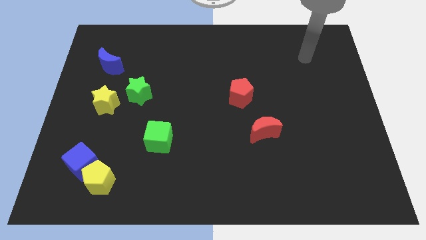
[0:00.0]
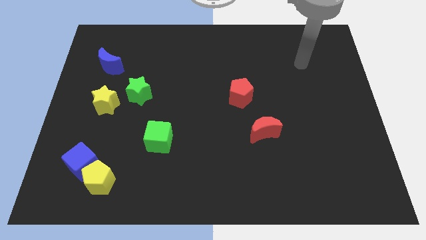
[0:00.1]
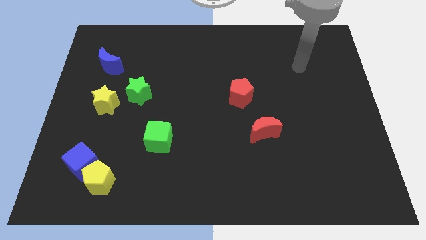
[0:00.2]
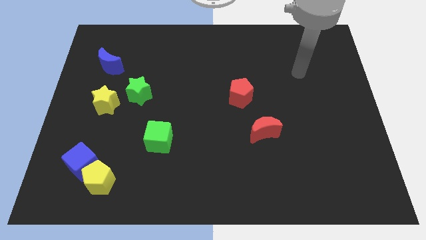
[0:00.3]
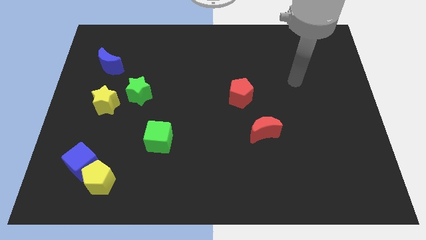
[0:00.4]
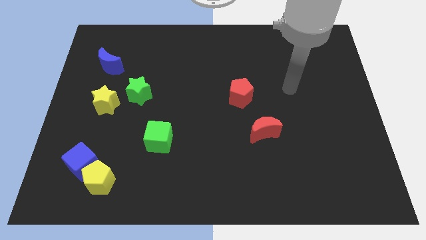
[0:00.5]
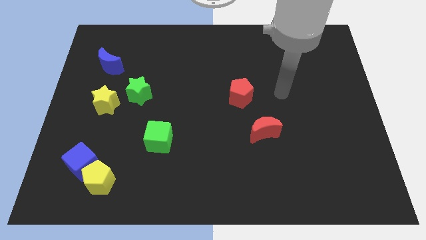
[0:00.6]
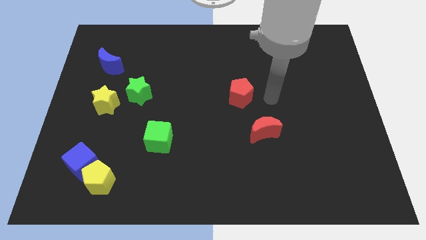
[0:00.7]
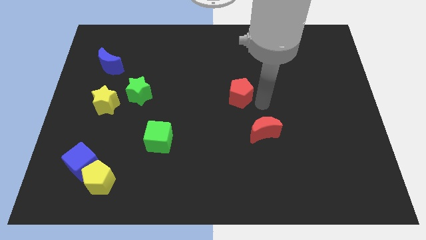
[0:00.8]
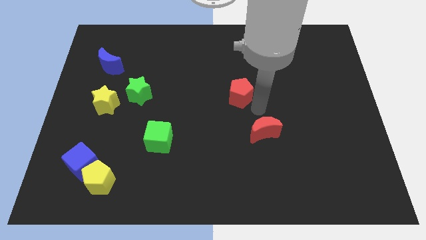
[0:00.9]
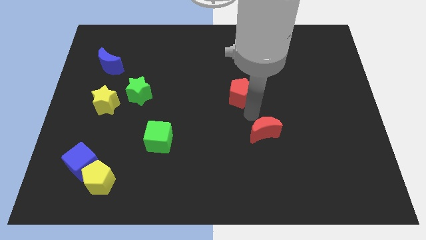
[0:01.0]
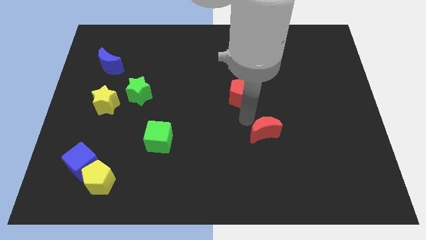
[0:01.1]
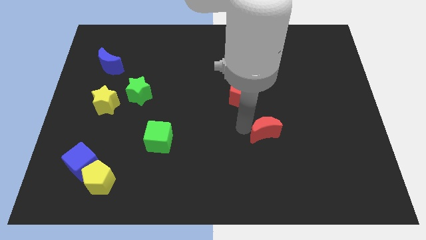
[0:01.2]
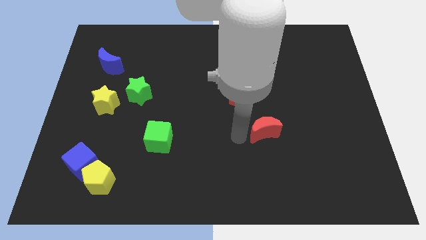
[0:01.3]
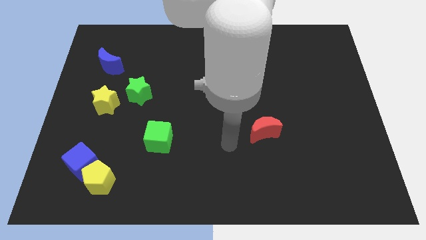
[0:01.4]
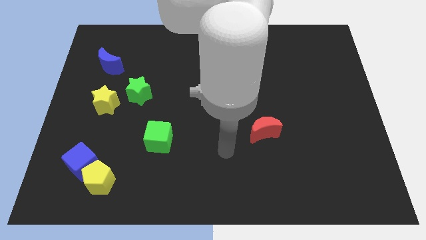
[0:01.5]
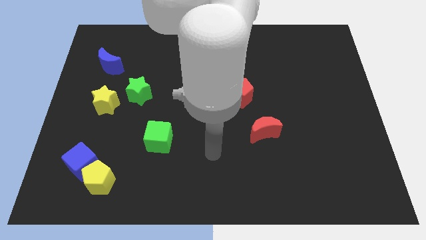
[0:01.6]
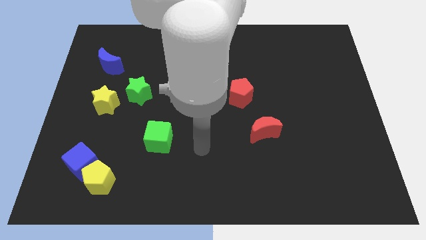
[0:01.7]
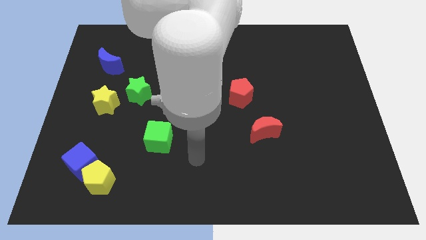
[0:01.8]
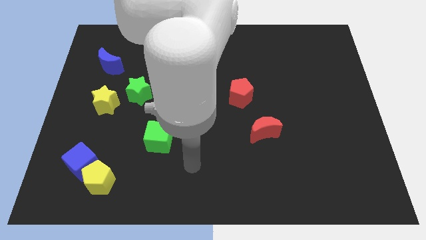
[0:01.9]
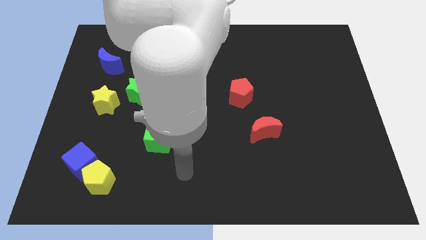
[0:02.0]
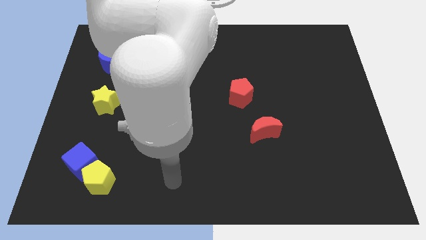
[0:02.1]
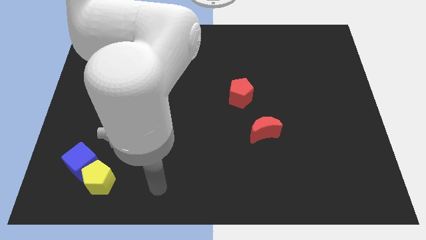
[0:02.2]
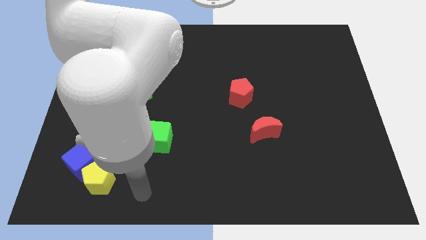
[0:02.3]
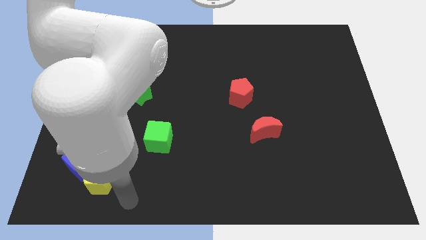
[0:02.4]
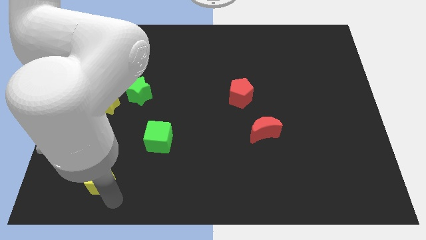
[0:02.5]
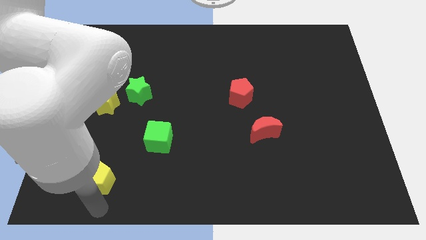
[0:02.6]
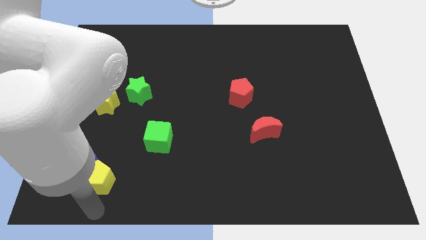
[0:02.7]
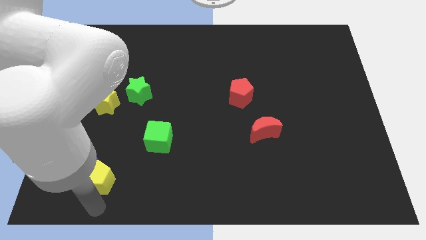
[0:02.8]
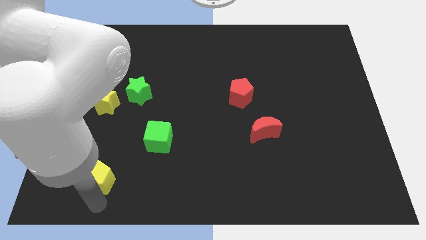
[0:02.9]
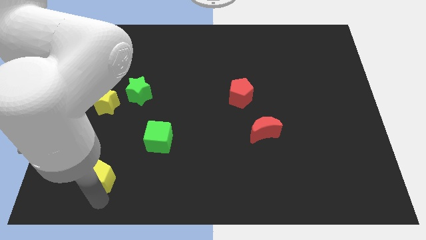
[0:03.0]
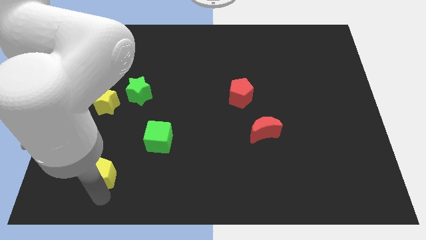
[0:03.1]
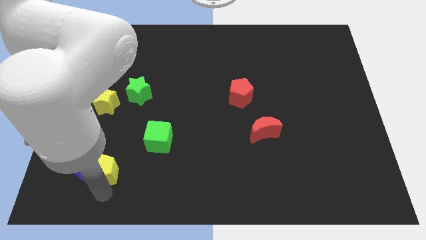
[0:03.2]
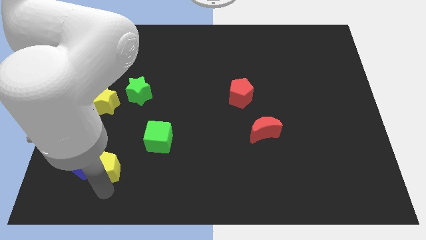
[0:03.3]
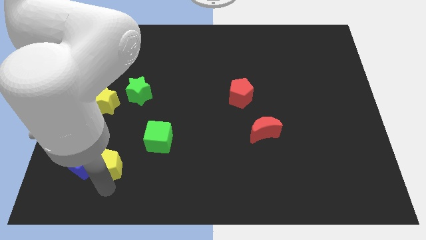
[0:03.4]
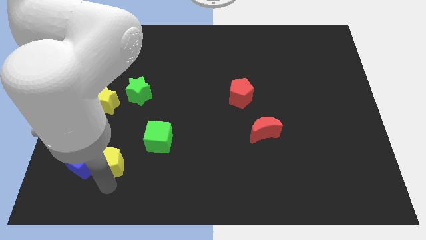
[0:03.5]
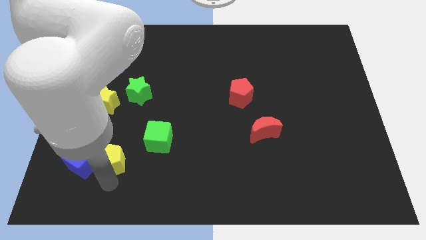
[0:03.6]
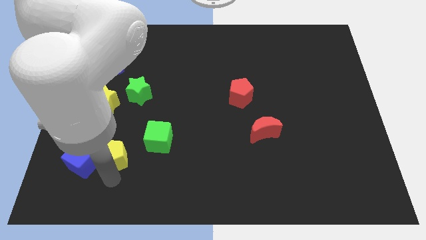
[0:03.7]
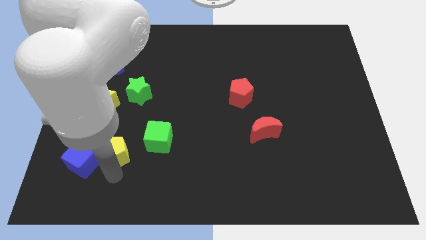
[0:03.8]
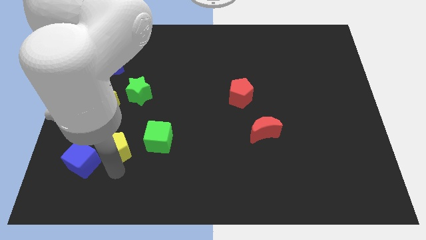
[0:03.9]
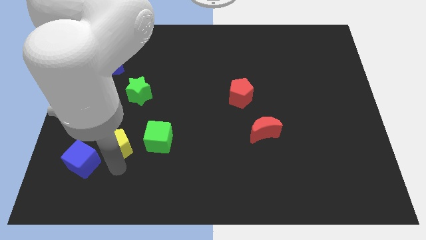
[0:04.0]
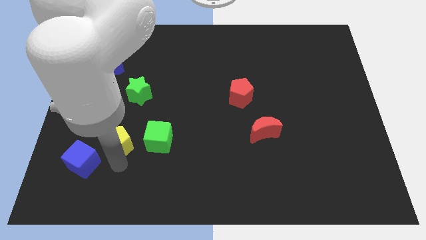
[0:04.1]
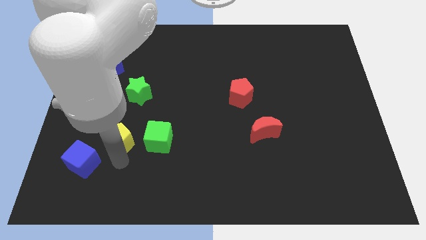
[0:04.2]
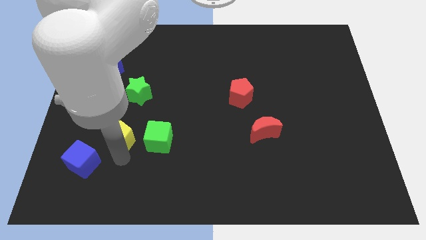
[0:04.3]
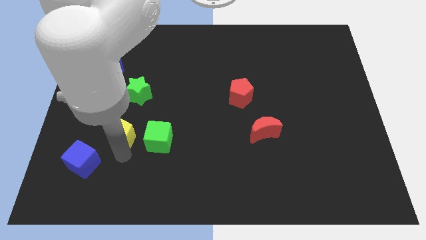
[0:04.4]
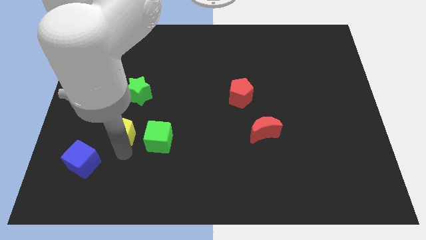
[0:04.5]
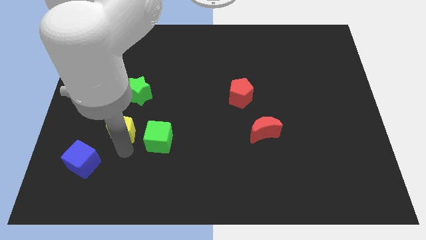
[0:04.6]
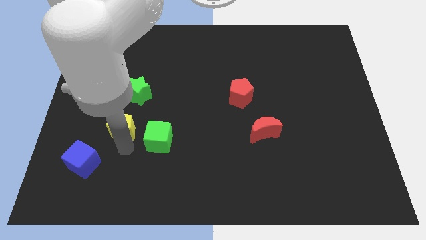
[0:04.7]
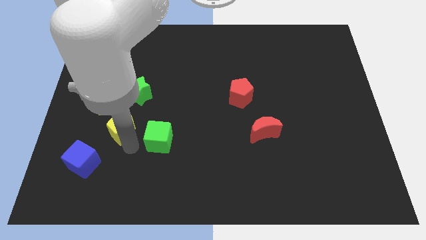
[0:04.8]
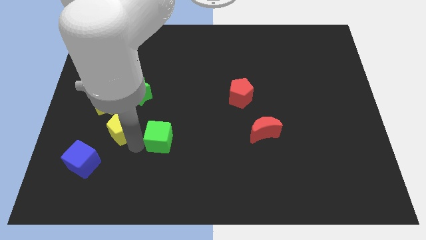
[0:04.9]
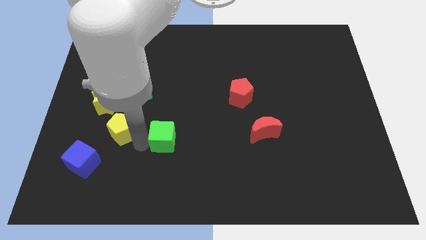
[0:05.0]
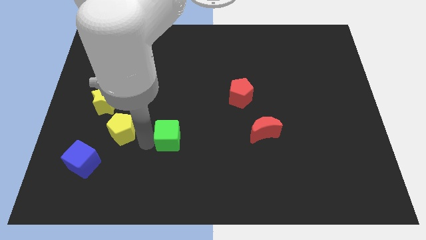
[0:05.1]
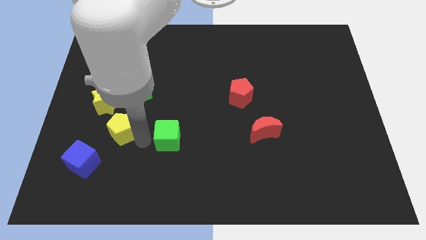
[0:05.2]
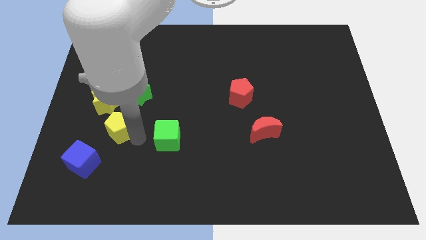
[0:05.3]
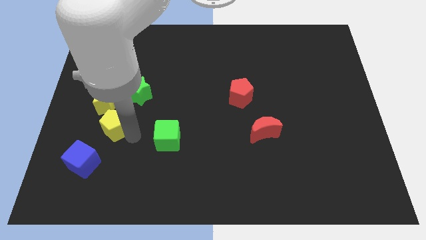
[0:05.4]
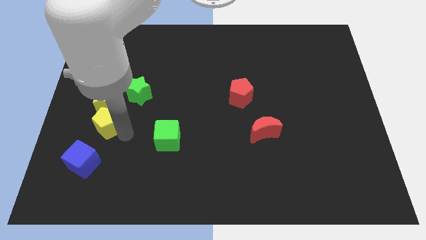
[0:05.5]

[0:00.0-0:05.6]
slide the yellow pentagon next to the yellow star

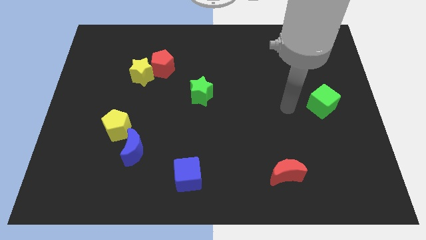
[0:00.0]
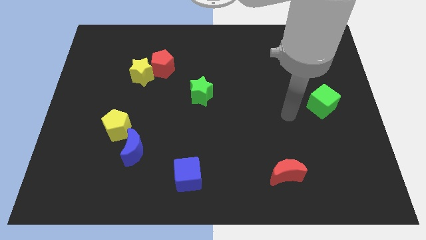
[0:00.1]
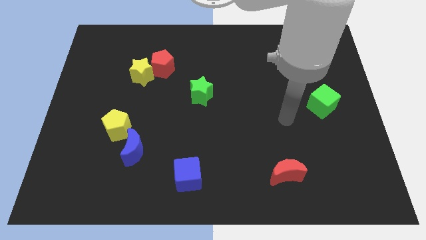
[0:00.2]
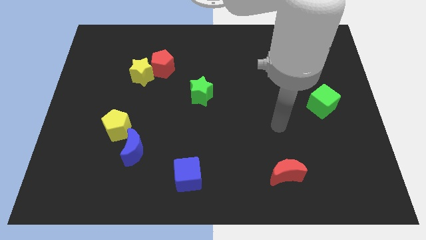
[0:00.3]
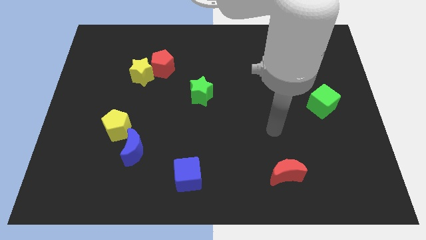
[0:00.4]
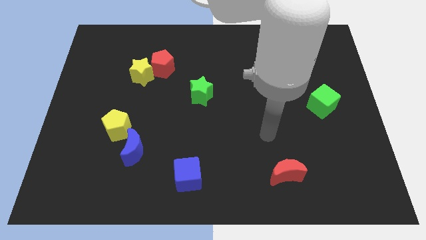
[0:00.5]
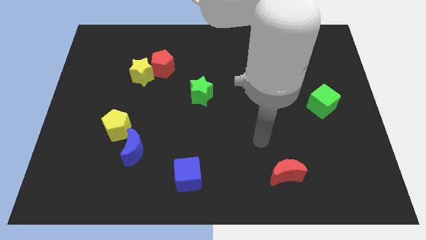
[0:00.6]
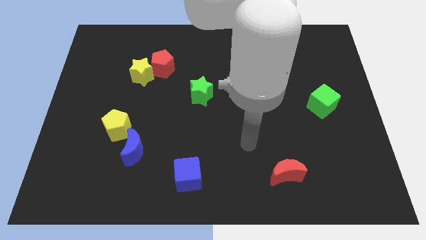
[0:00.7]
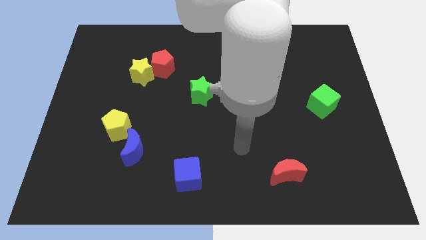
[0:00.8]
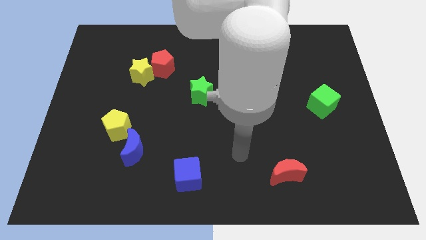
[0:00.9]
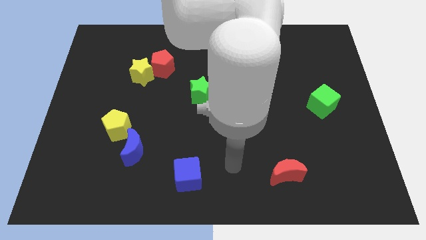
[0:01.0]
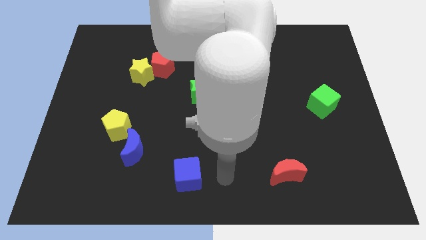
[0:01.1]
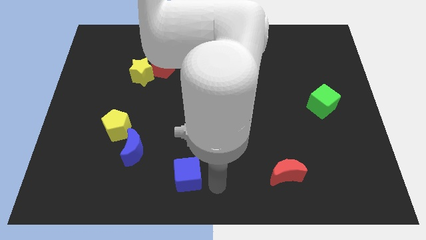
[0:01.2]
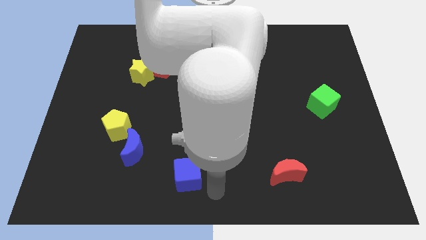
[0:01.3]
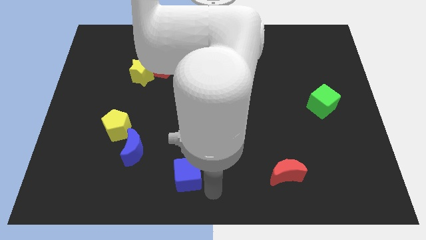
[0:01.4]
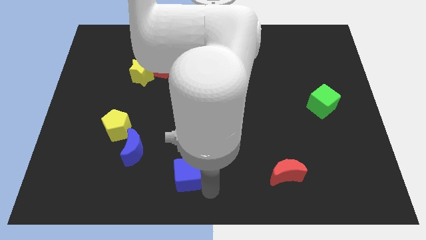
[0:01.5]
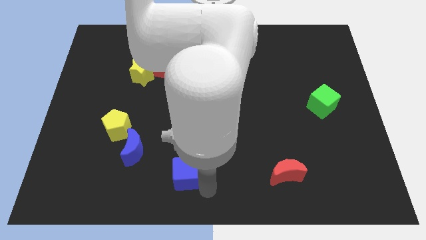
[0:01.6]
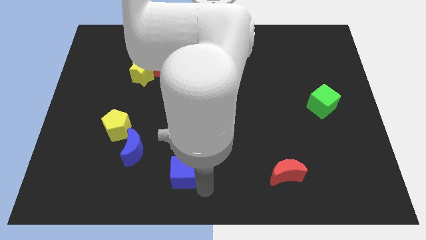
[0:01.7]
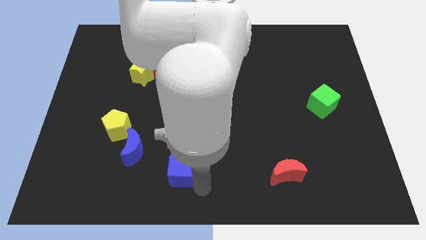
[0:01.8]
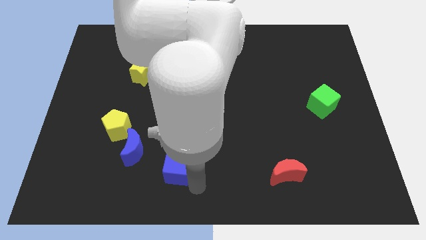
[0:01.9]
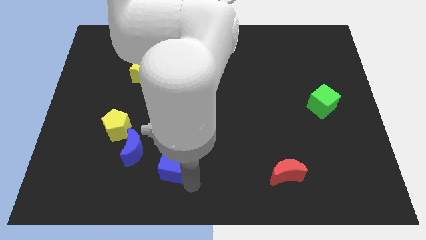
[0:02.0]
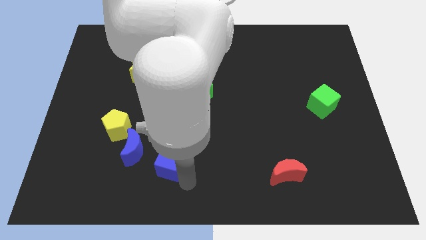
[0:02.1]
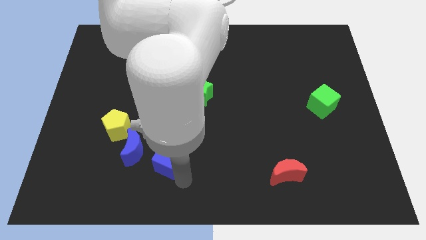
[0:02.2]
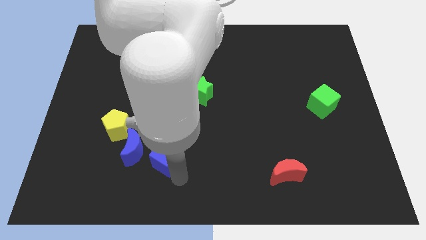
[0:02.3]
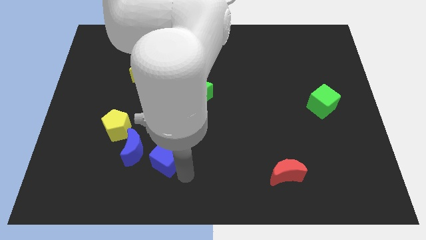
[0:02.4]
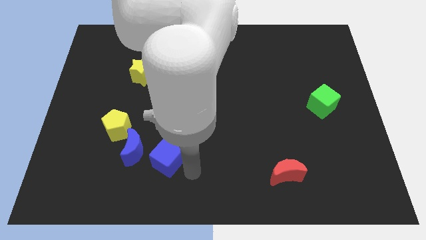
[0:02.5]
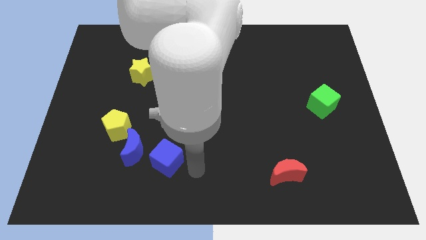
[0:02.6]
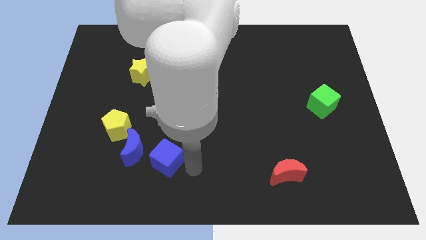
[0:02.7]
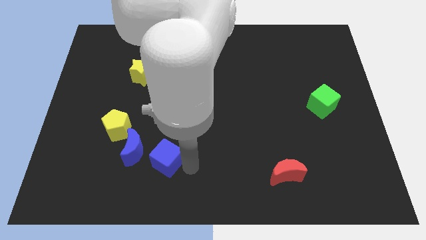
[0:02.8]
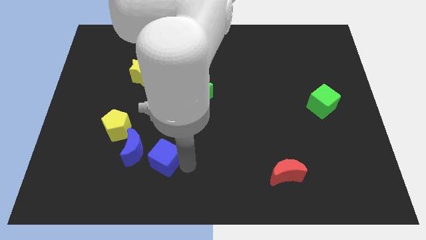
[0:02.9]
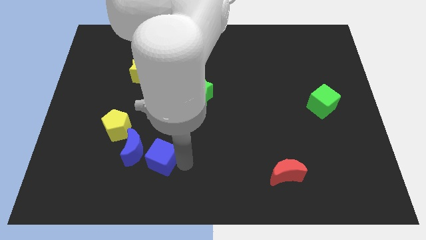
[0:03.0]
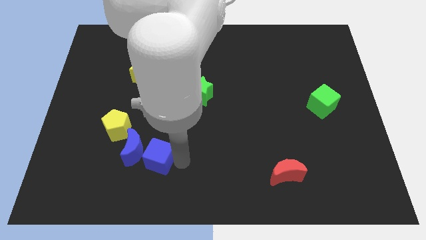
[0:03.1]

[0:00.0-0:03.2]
move the blue cube next to the blue moon
